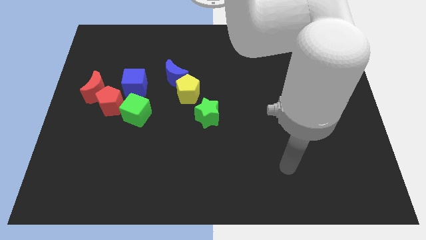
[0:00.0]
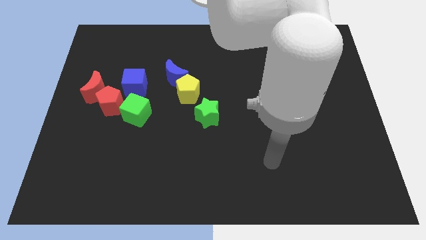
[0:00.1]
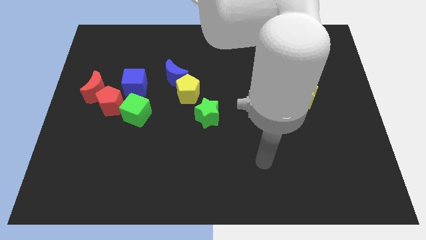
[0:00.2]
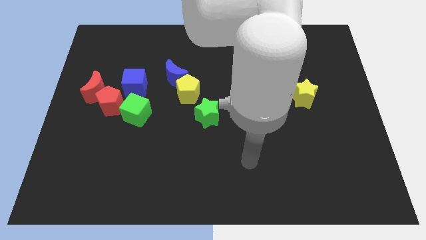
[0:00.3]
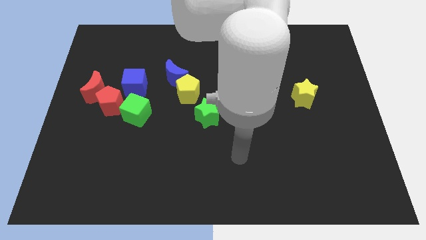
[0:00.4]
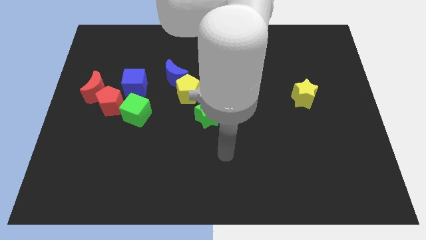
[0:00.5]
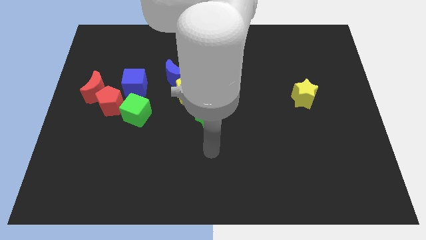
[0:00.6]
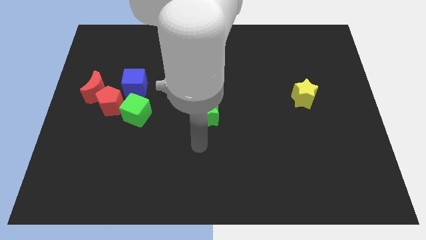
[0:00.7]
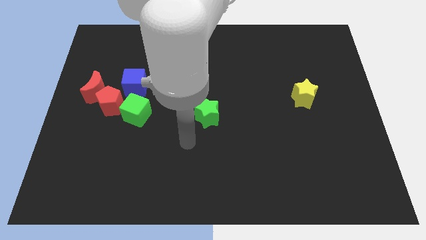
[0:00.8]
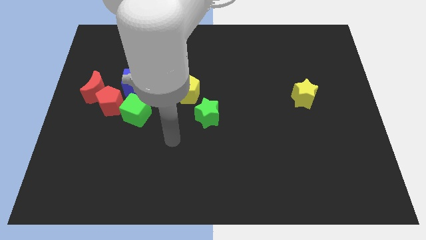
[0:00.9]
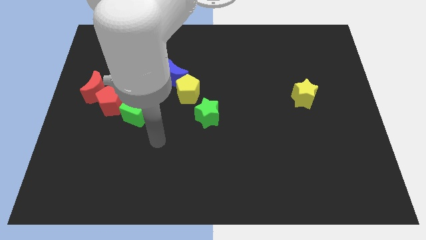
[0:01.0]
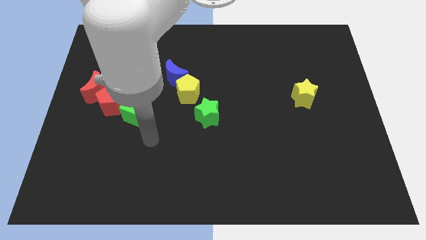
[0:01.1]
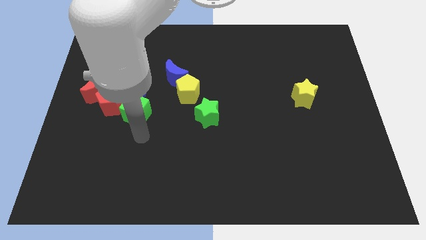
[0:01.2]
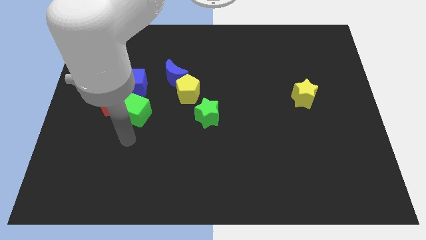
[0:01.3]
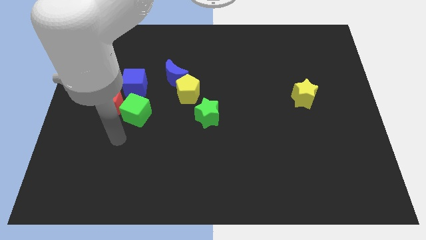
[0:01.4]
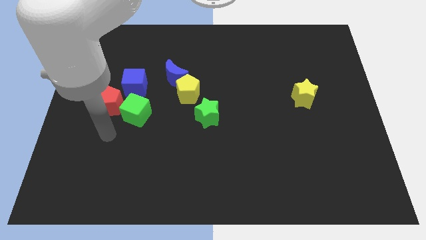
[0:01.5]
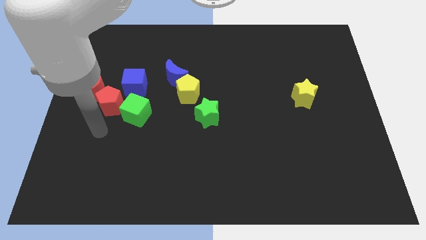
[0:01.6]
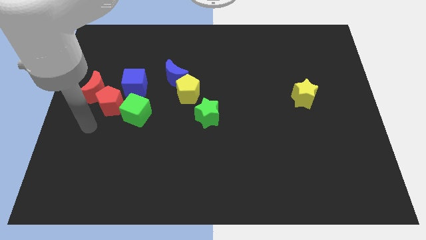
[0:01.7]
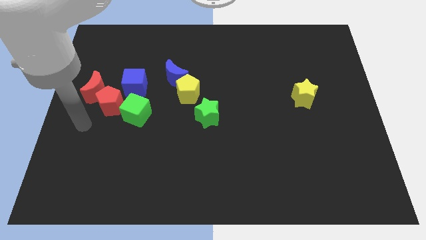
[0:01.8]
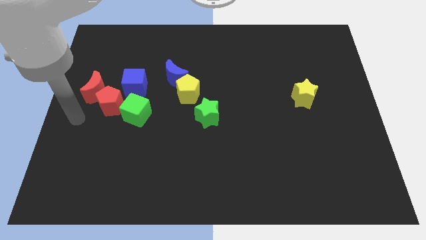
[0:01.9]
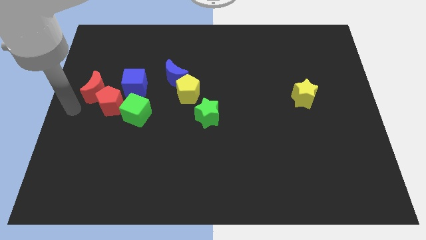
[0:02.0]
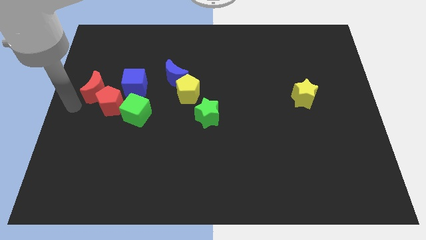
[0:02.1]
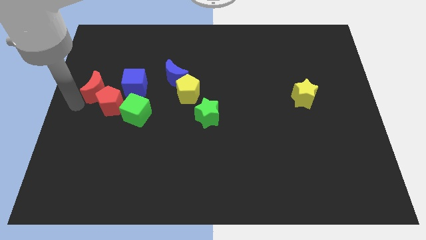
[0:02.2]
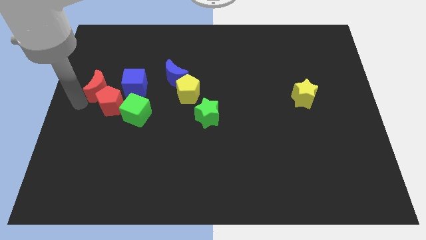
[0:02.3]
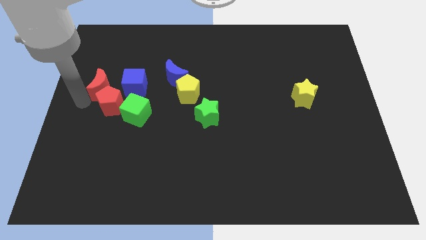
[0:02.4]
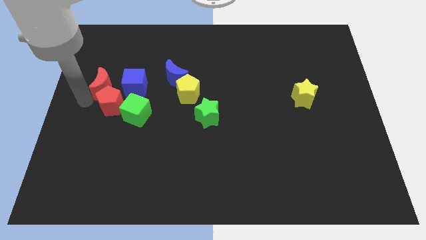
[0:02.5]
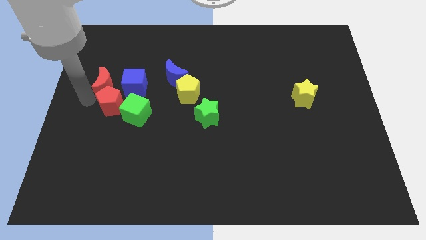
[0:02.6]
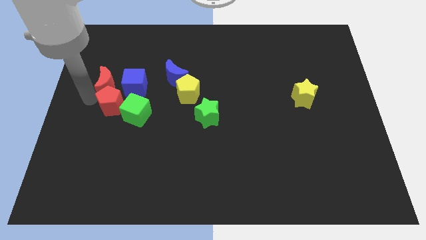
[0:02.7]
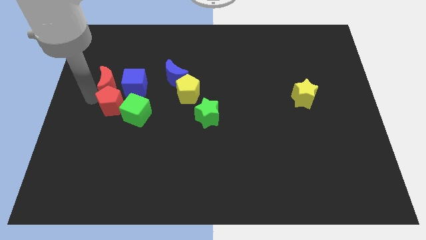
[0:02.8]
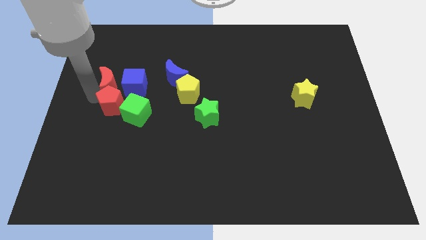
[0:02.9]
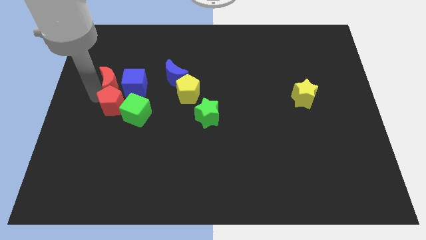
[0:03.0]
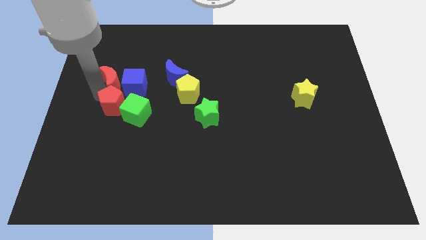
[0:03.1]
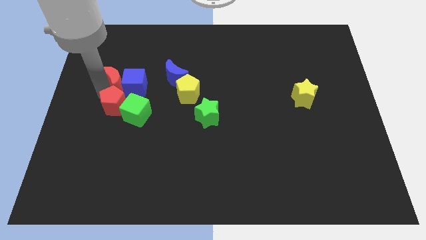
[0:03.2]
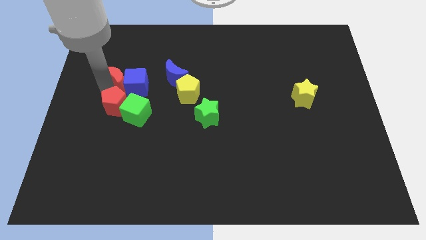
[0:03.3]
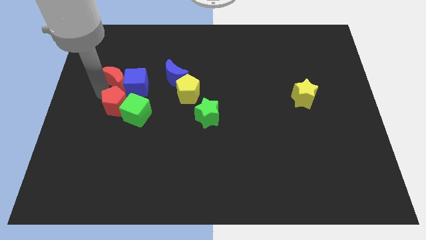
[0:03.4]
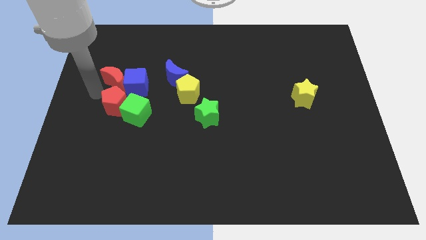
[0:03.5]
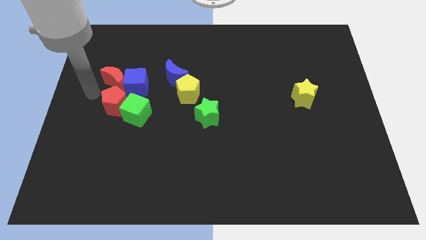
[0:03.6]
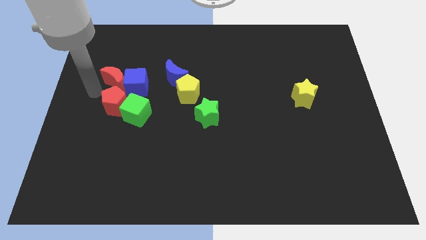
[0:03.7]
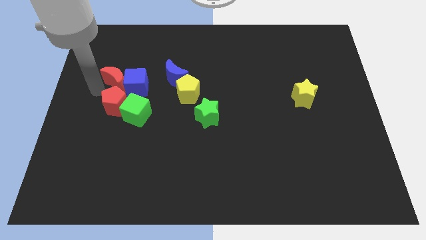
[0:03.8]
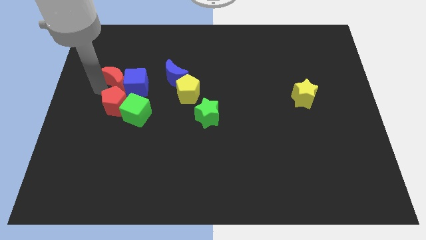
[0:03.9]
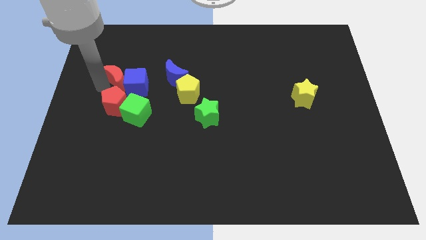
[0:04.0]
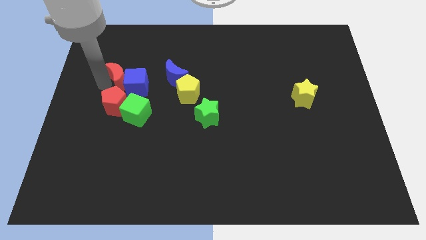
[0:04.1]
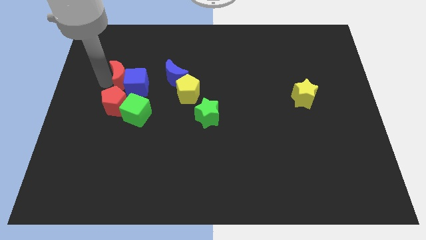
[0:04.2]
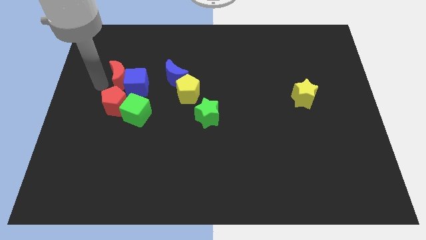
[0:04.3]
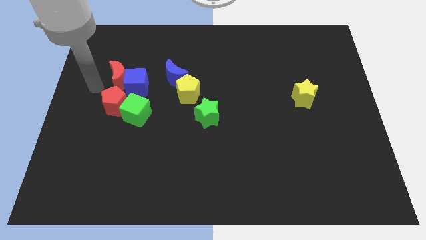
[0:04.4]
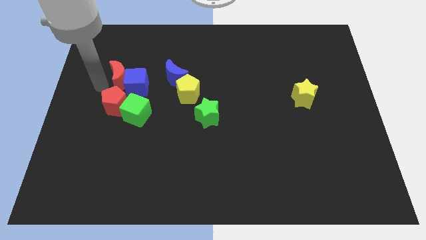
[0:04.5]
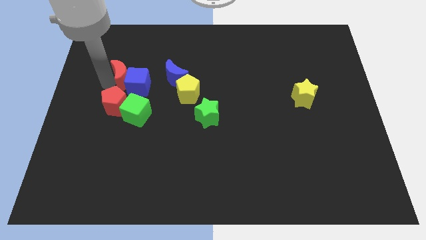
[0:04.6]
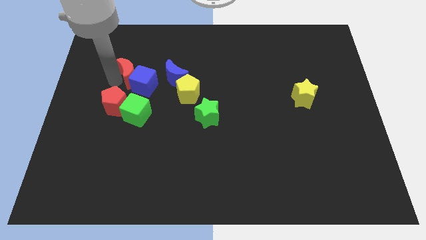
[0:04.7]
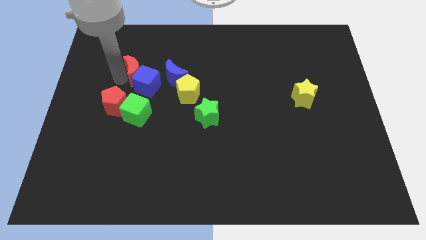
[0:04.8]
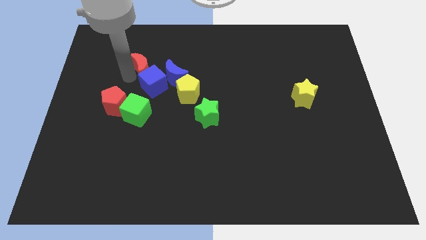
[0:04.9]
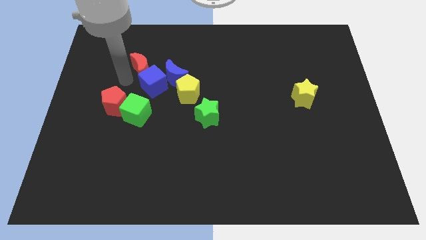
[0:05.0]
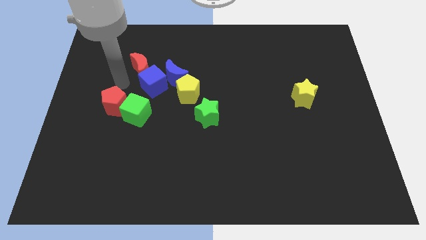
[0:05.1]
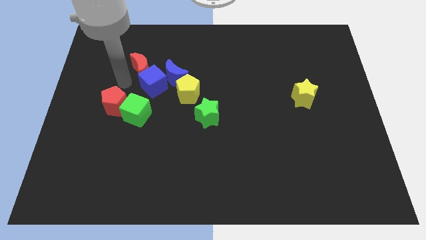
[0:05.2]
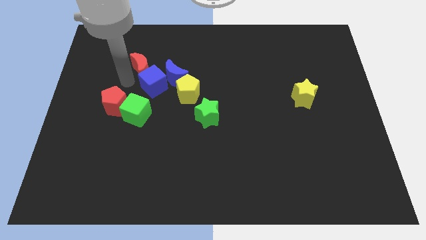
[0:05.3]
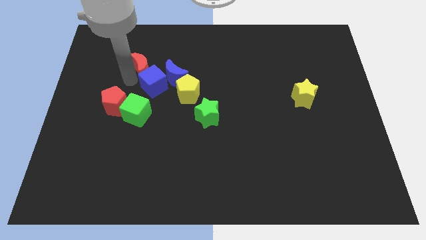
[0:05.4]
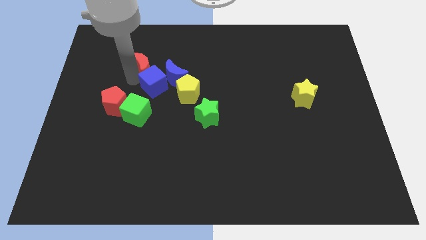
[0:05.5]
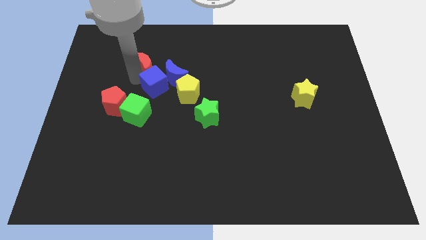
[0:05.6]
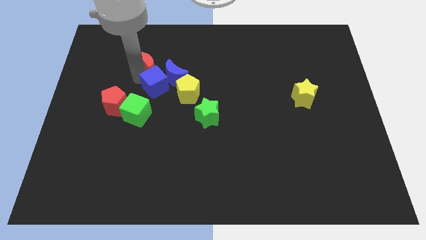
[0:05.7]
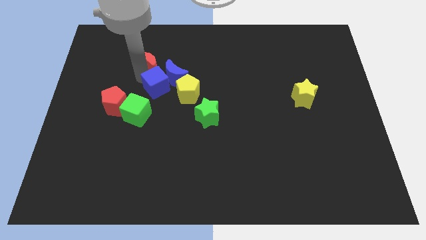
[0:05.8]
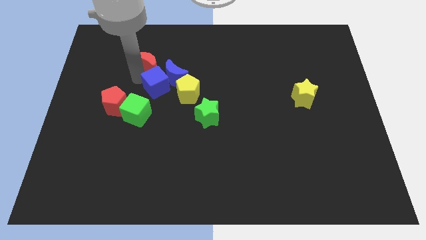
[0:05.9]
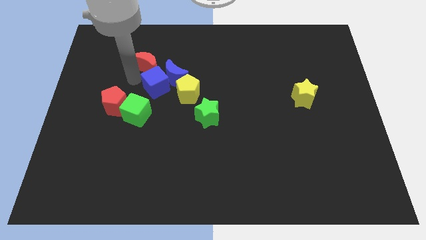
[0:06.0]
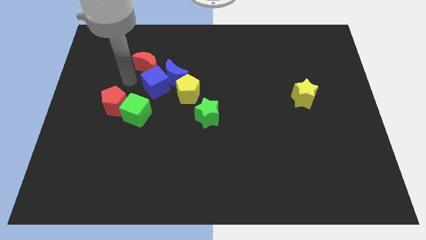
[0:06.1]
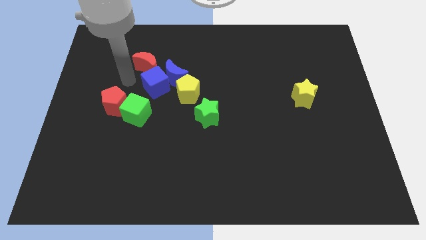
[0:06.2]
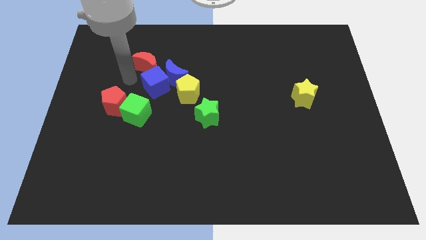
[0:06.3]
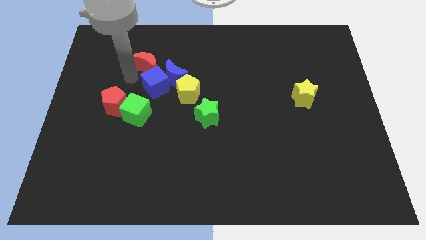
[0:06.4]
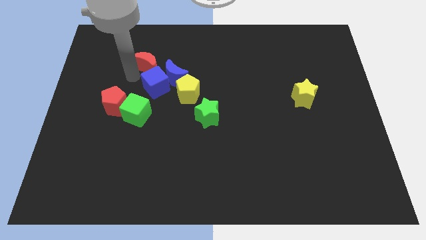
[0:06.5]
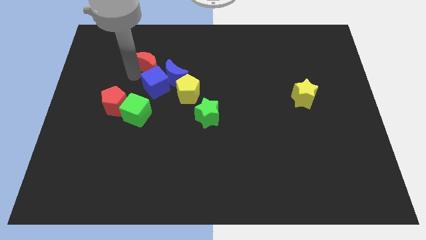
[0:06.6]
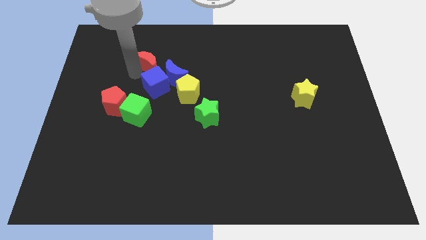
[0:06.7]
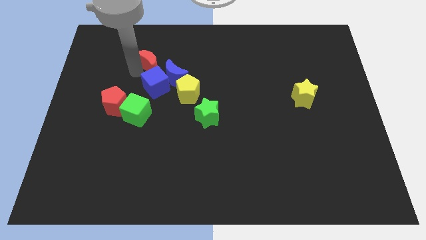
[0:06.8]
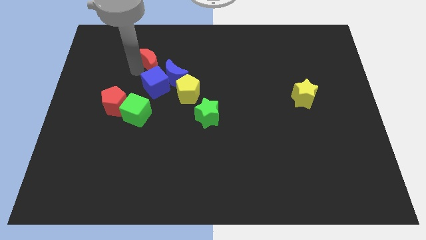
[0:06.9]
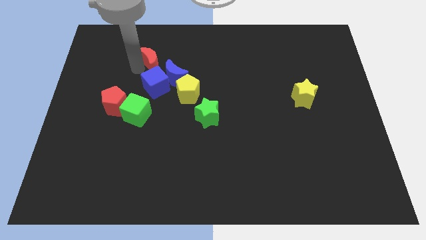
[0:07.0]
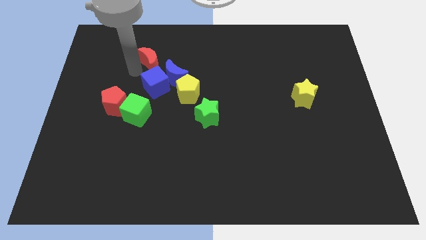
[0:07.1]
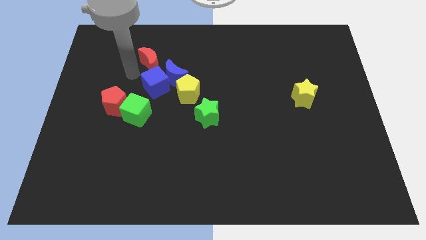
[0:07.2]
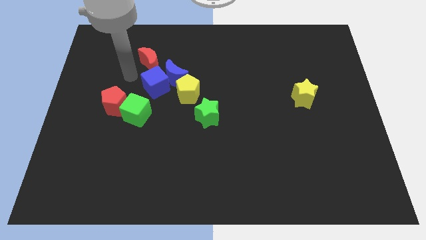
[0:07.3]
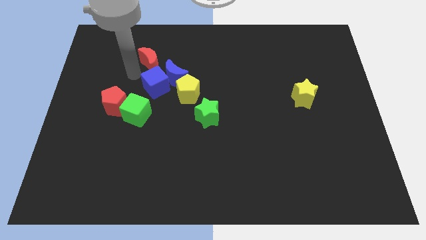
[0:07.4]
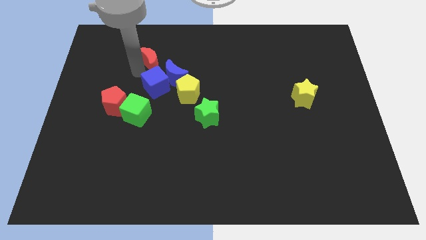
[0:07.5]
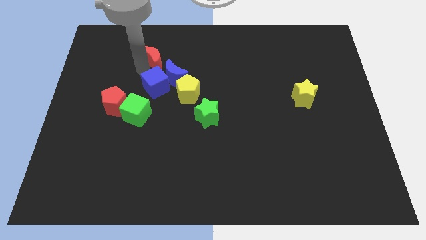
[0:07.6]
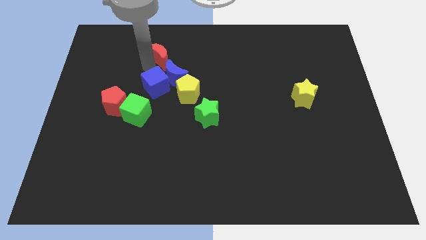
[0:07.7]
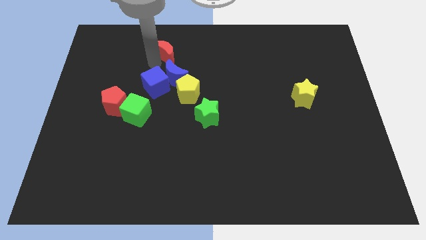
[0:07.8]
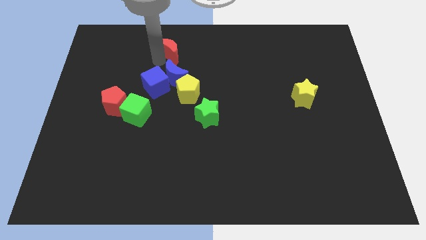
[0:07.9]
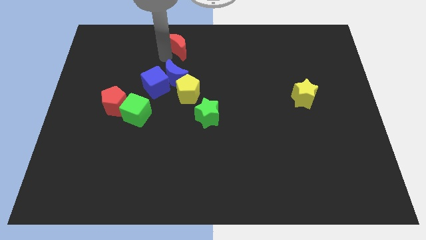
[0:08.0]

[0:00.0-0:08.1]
slide the red moon to the top
